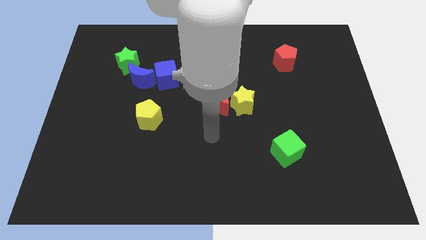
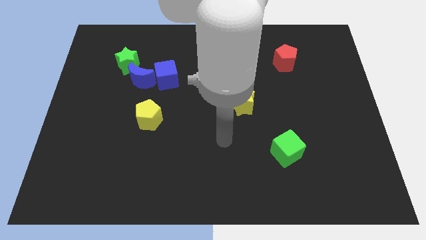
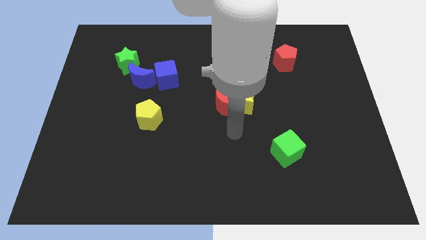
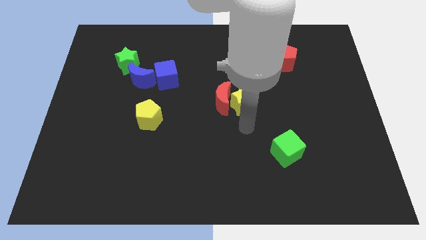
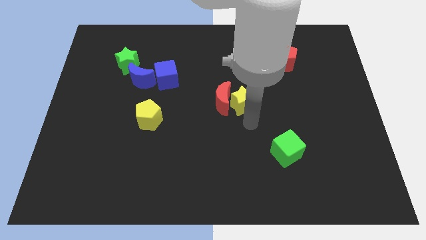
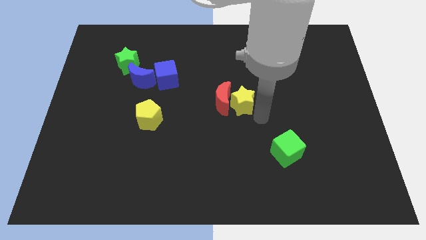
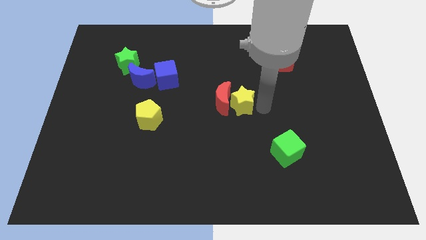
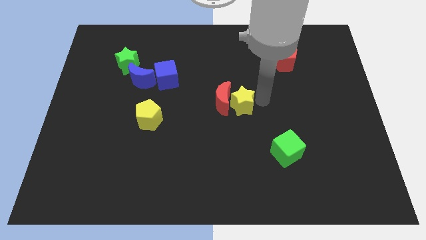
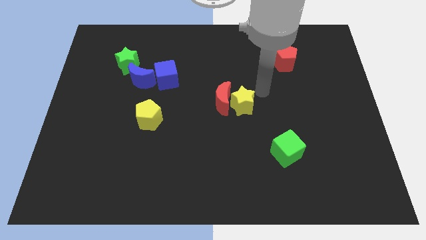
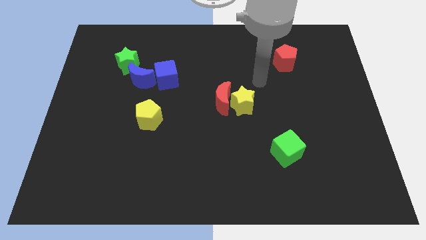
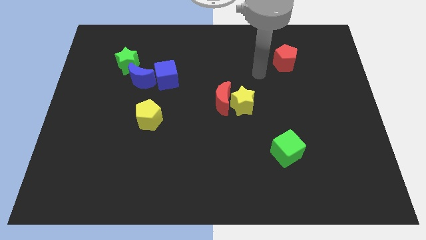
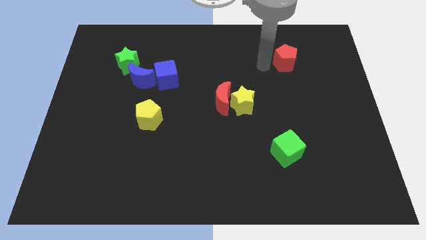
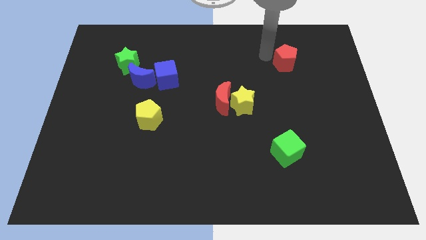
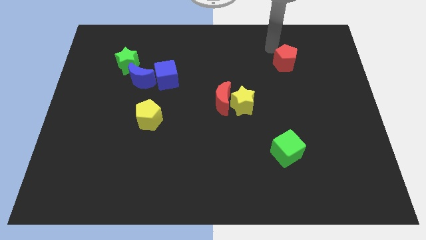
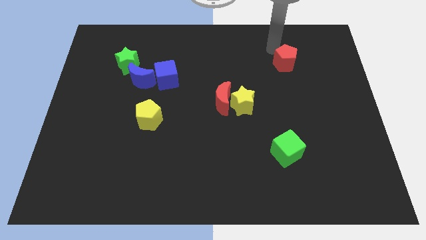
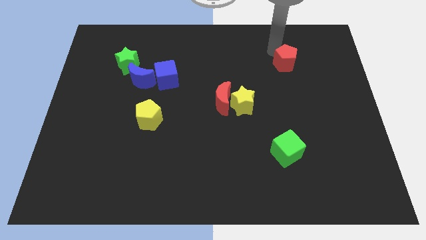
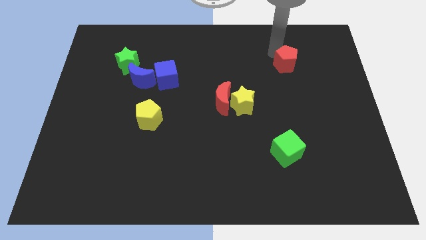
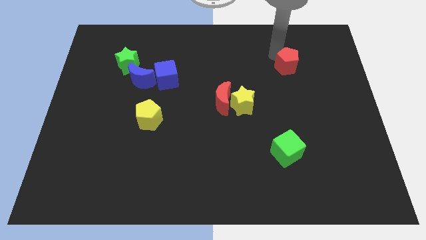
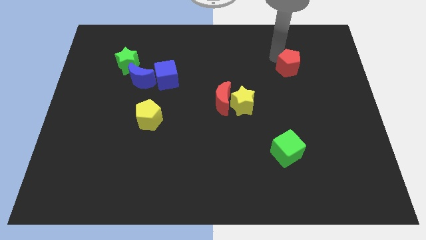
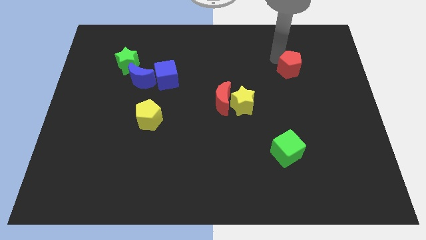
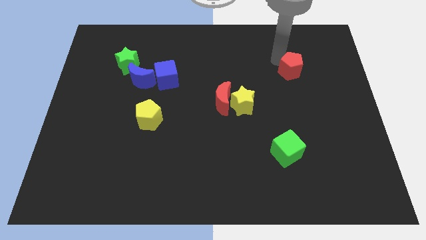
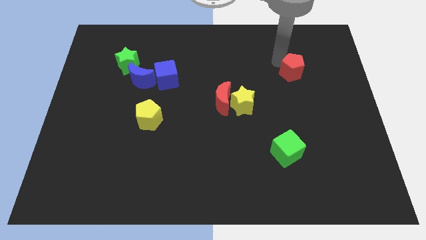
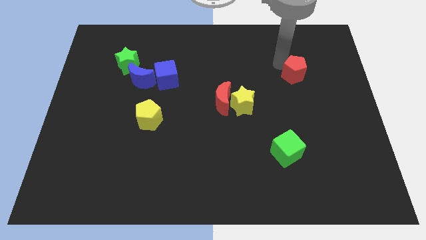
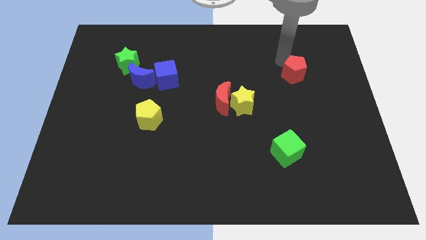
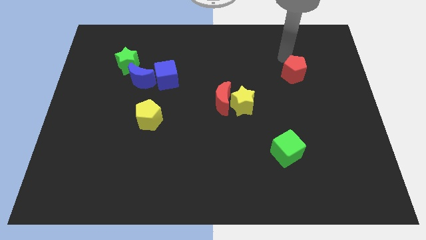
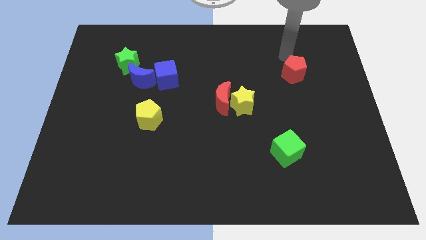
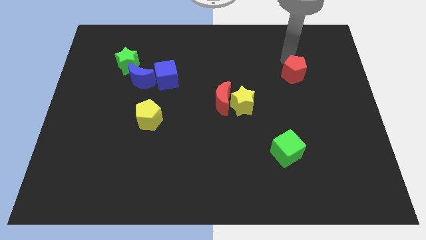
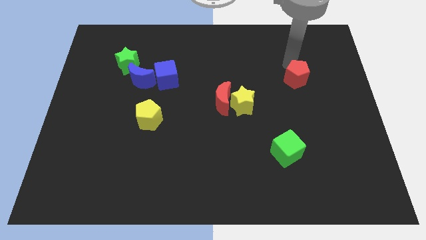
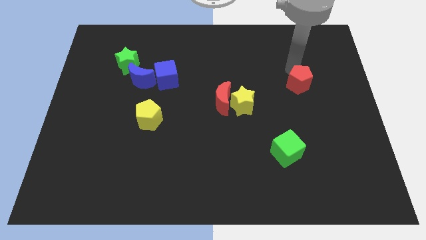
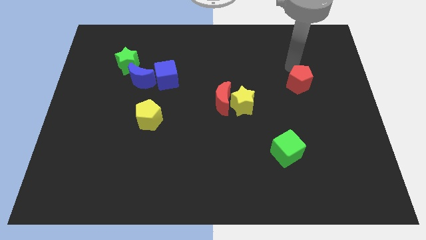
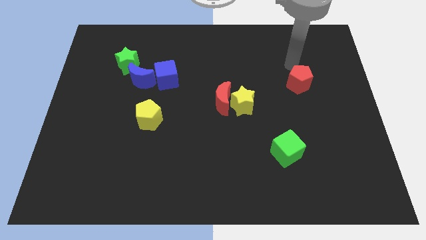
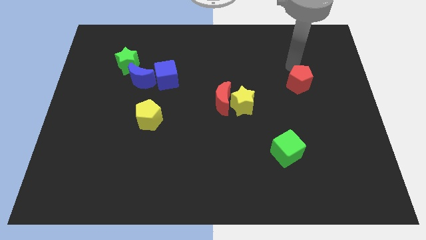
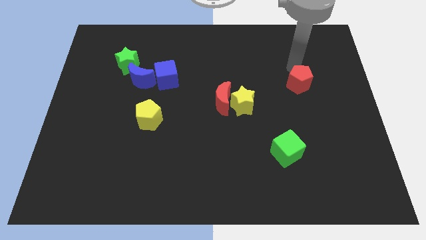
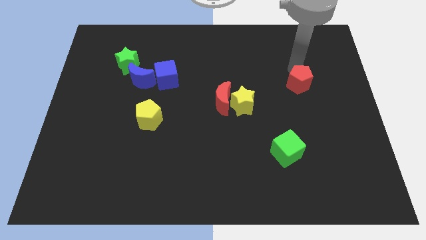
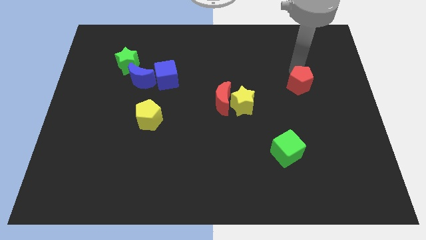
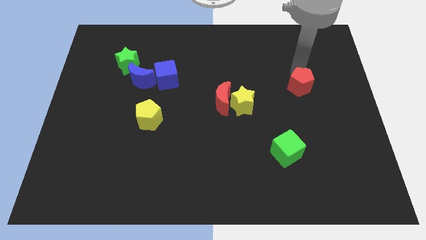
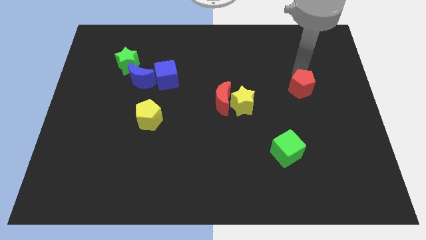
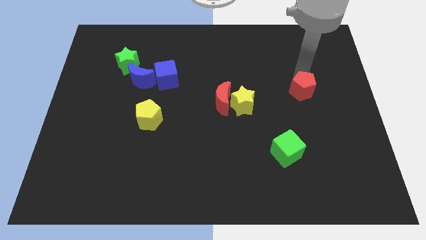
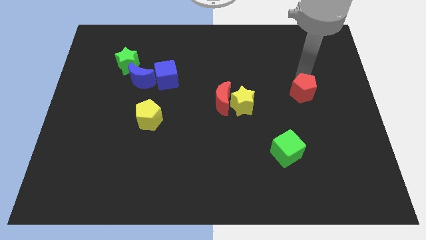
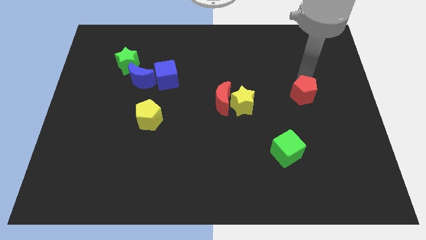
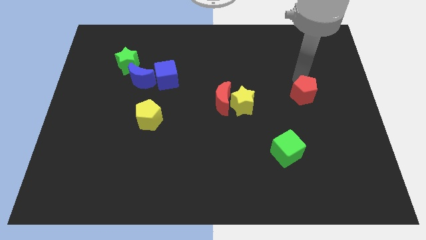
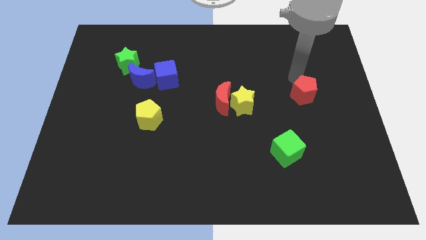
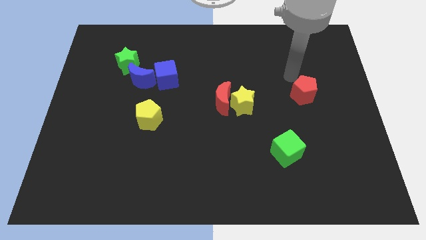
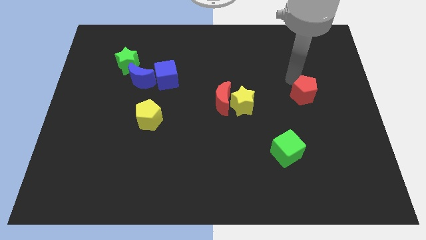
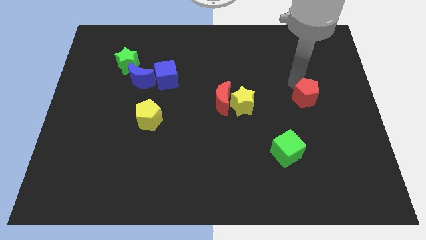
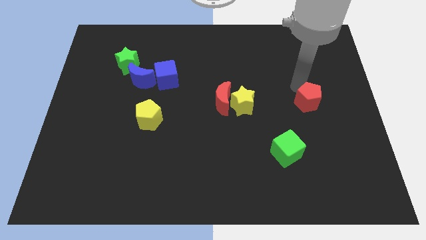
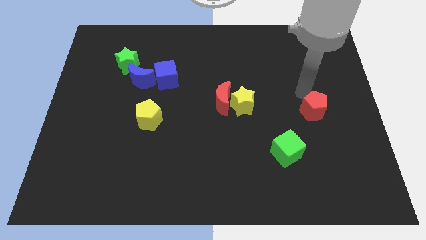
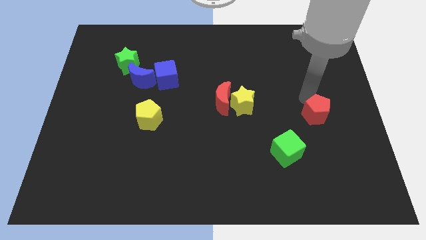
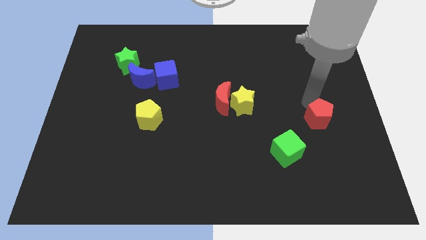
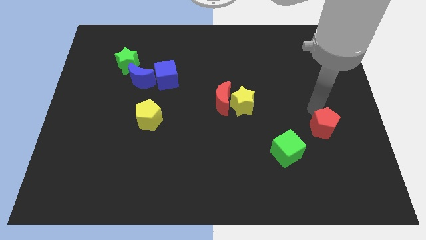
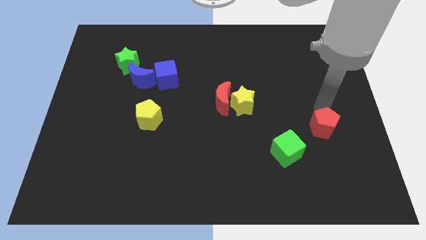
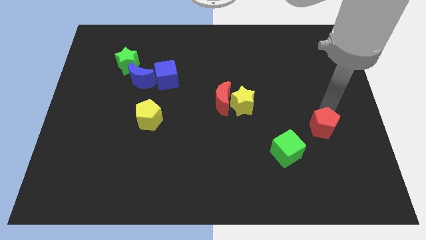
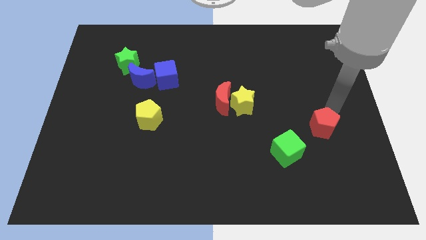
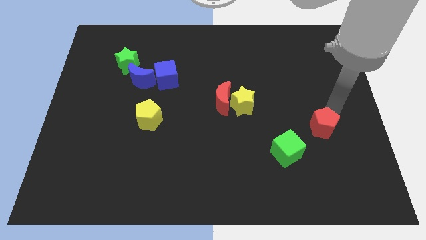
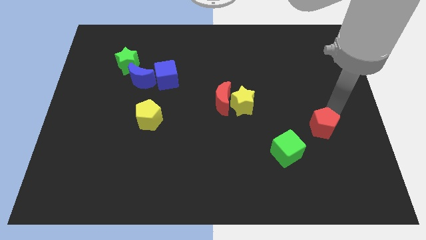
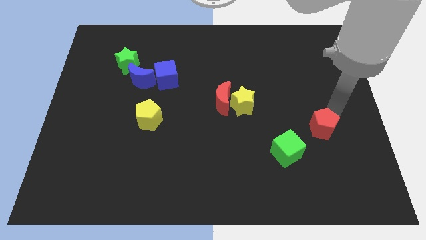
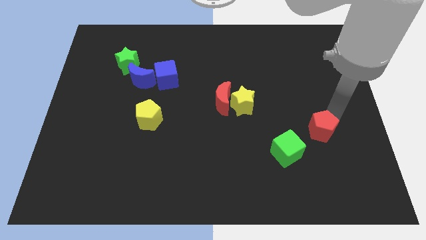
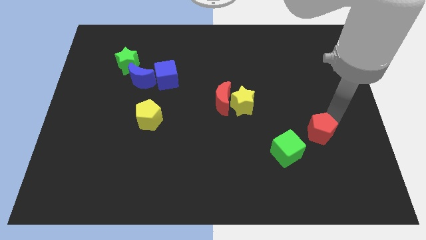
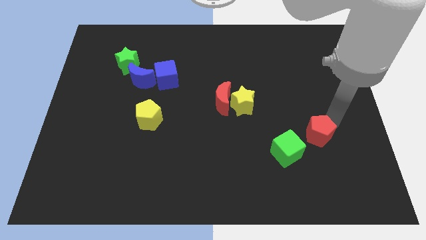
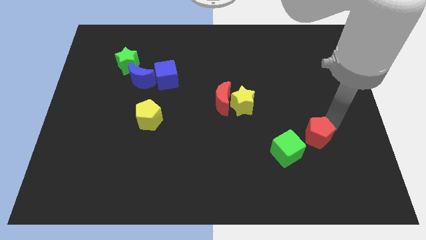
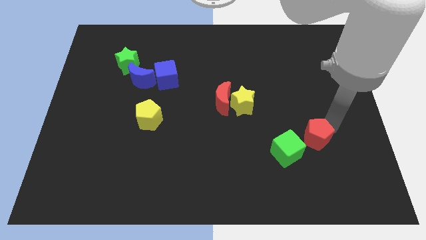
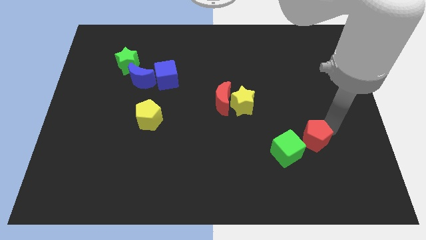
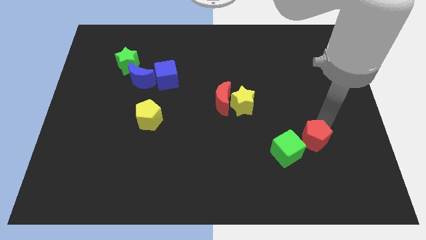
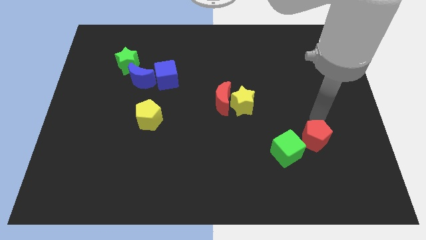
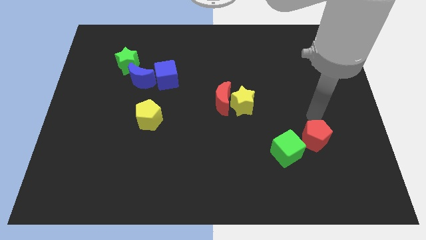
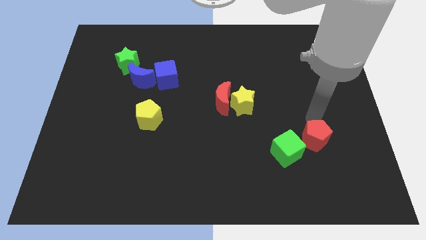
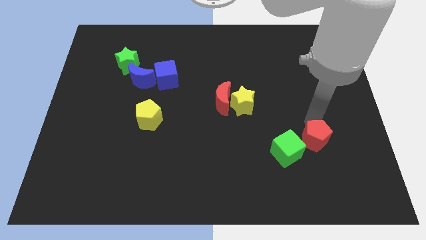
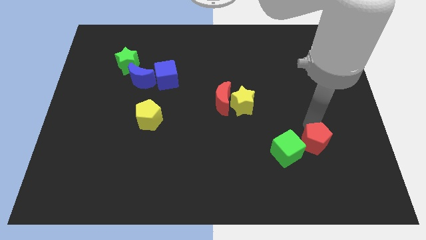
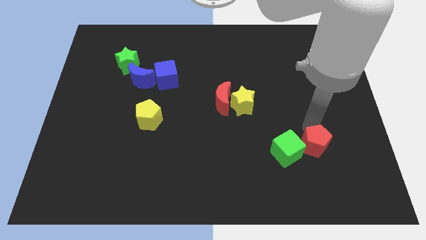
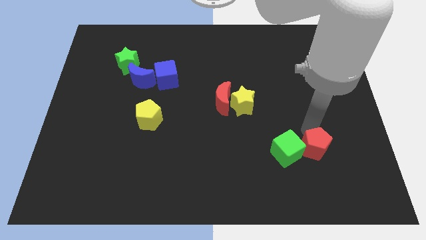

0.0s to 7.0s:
slide the red pentagon to the bottom right of the green cube

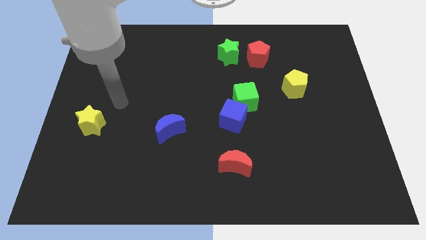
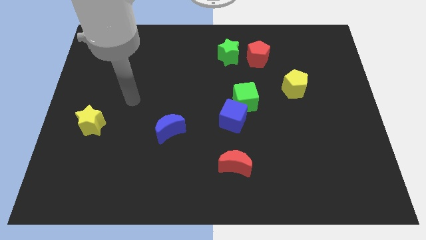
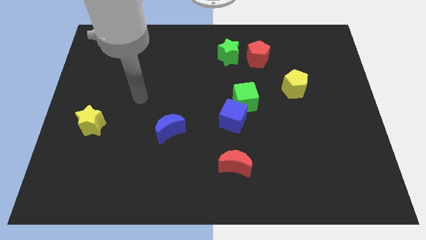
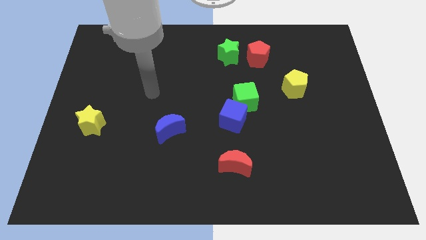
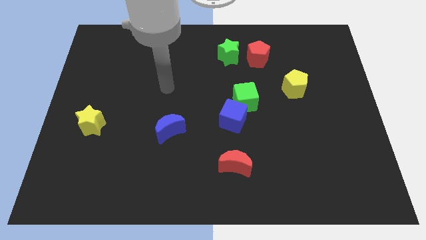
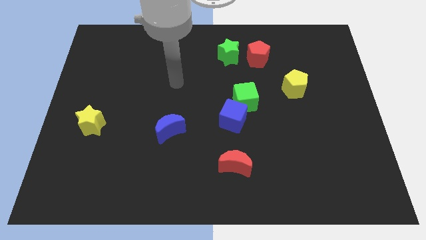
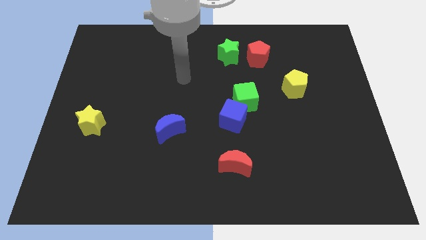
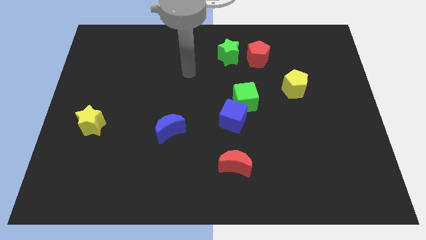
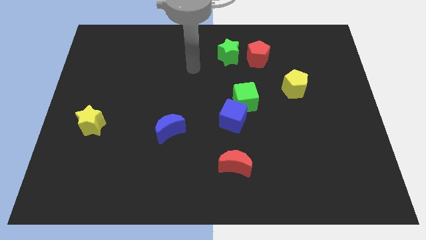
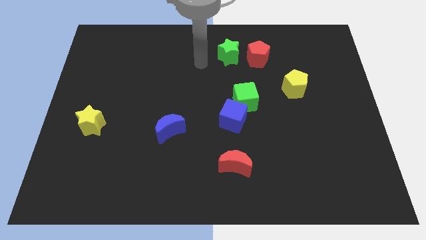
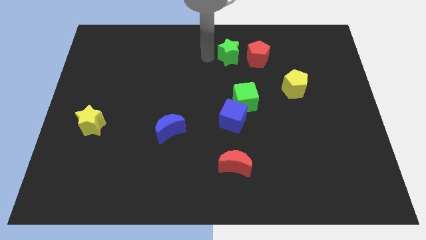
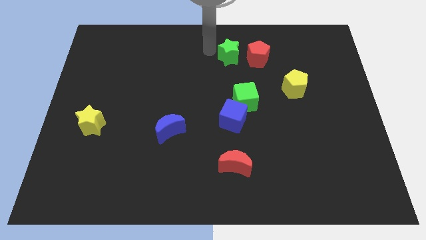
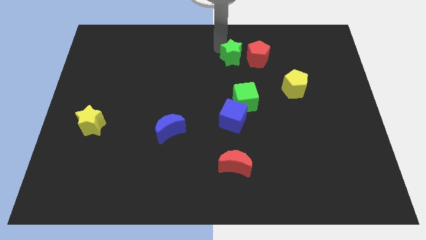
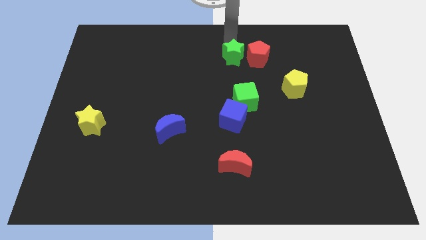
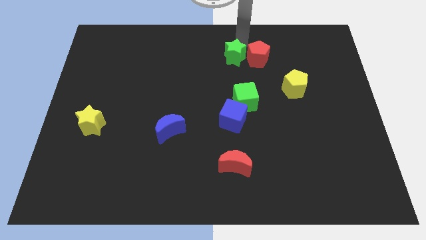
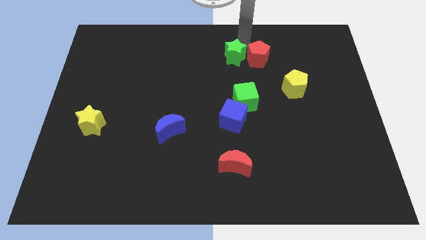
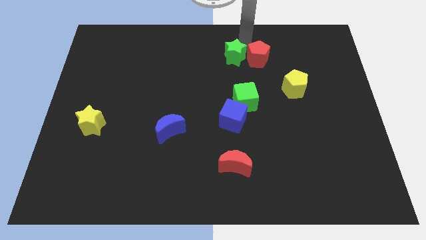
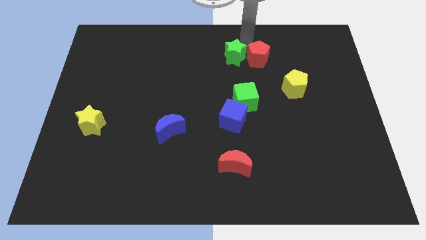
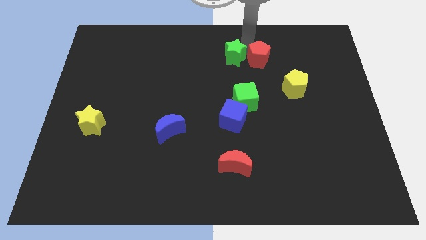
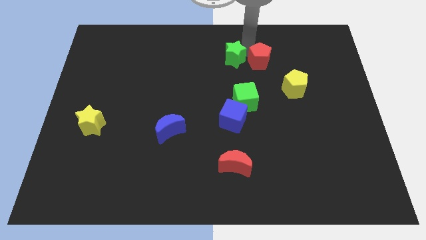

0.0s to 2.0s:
push the red pentagon to the top left side of the yellow pentagon
